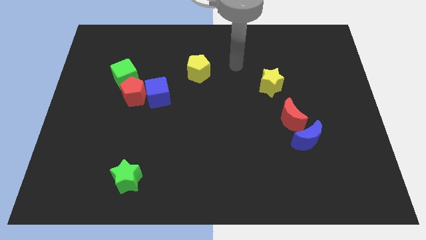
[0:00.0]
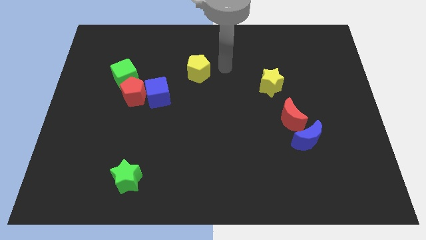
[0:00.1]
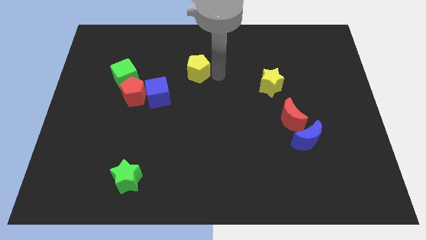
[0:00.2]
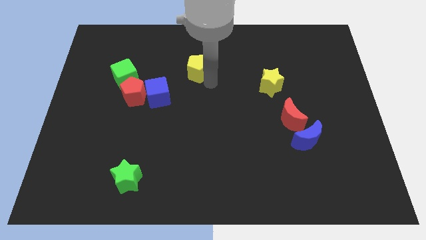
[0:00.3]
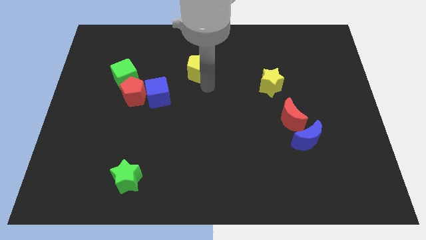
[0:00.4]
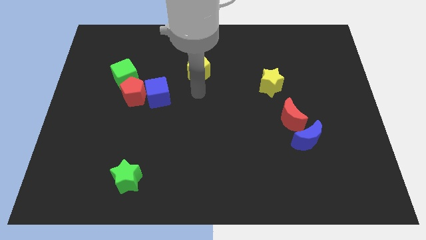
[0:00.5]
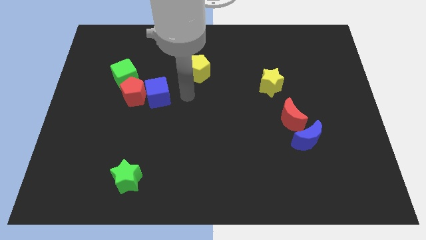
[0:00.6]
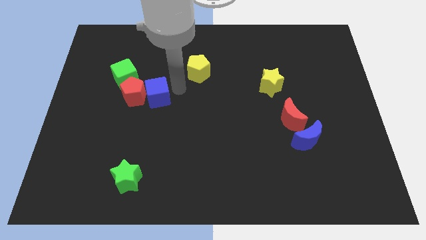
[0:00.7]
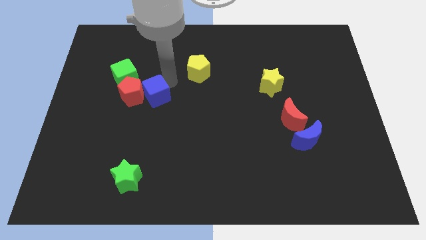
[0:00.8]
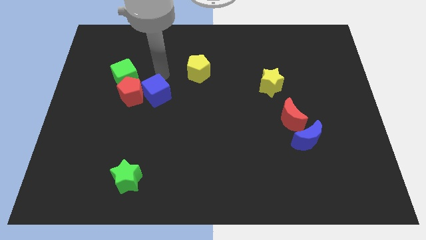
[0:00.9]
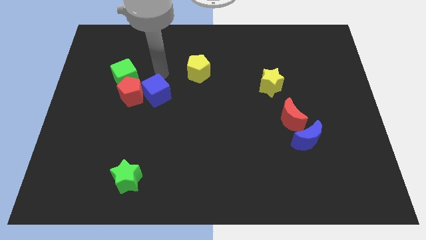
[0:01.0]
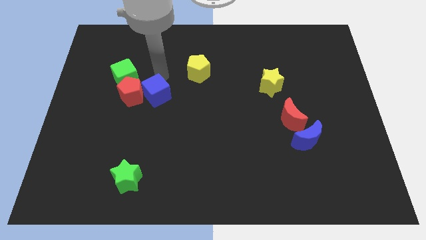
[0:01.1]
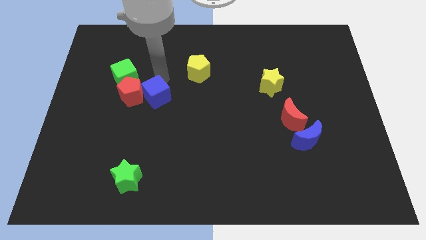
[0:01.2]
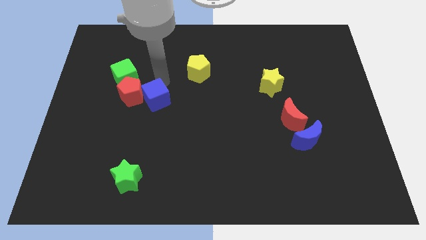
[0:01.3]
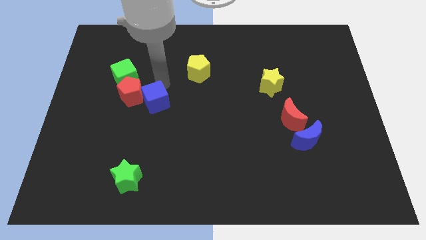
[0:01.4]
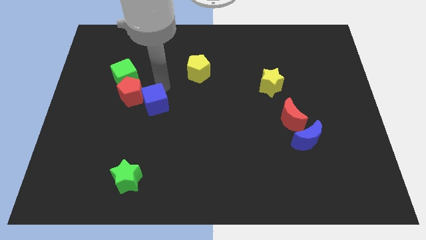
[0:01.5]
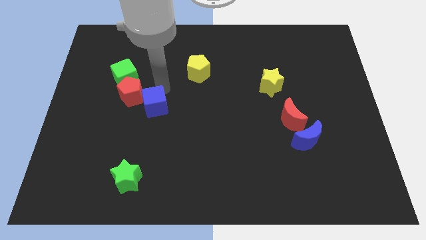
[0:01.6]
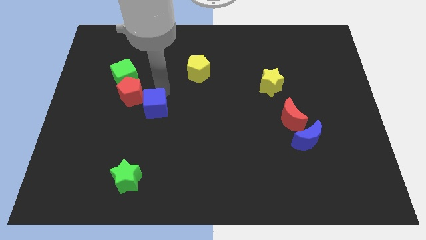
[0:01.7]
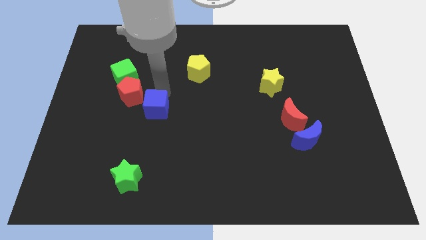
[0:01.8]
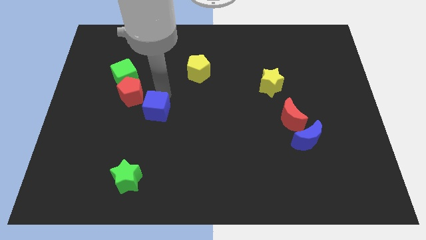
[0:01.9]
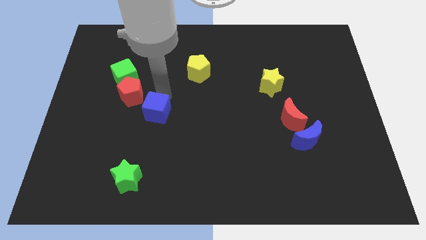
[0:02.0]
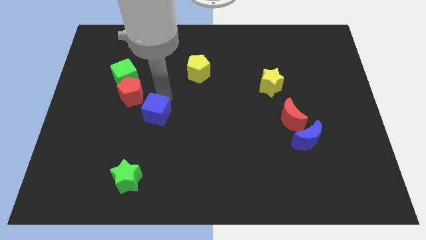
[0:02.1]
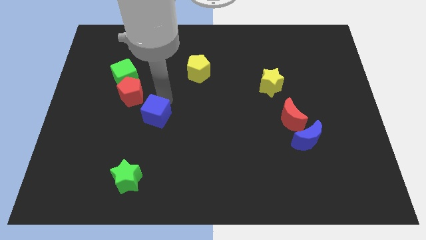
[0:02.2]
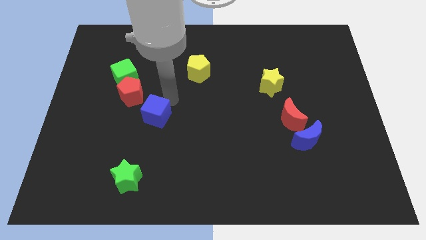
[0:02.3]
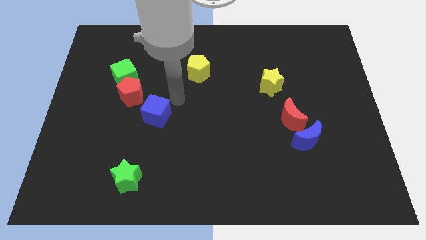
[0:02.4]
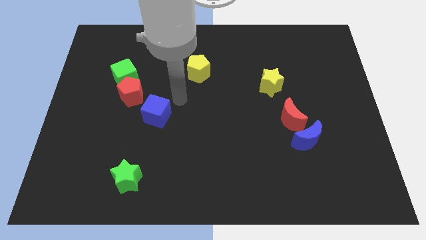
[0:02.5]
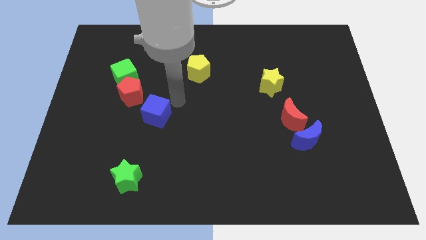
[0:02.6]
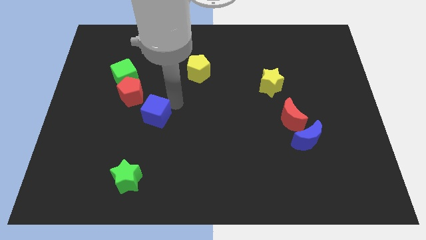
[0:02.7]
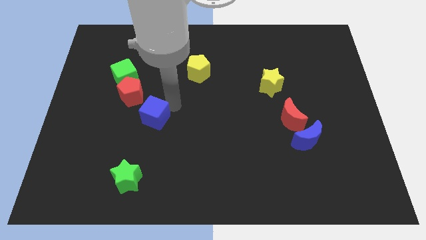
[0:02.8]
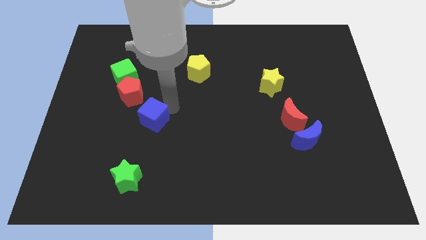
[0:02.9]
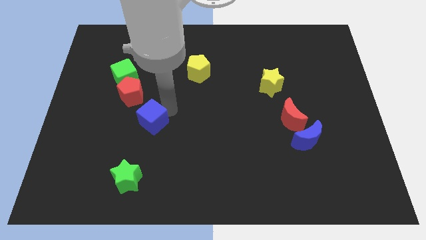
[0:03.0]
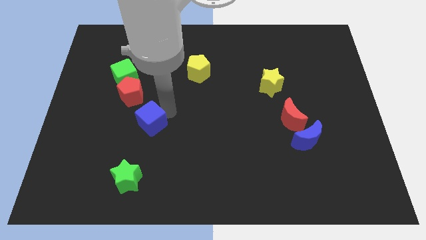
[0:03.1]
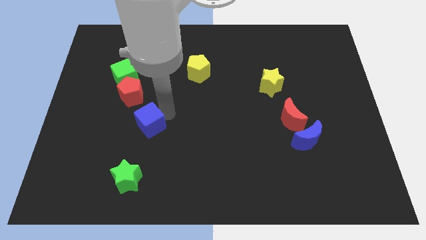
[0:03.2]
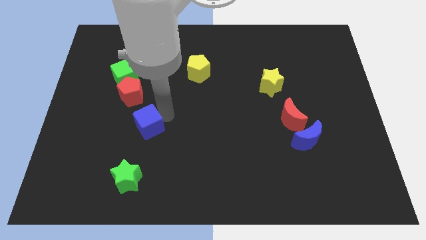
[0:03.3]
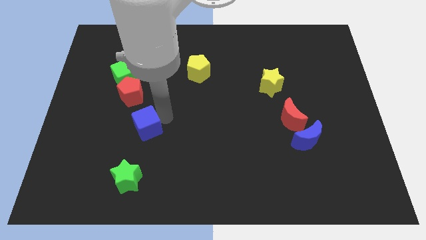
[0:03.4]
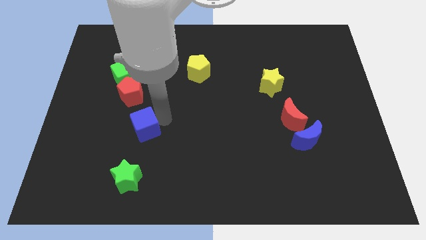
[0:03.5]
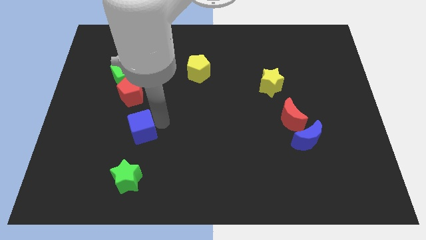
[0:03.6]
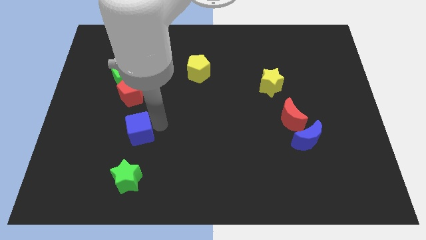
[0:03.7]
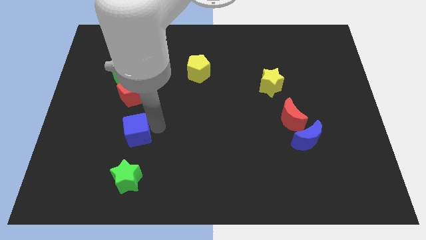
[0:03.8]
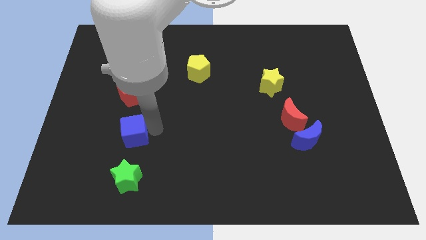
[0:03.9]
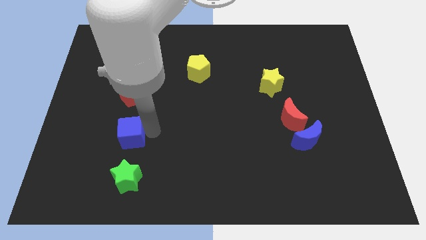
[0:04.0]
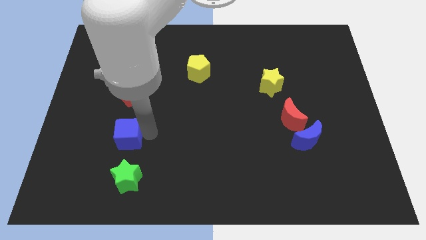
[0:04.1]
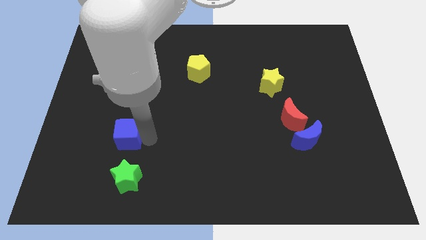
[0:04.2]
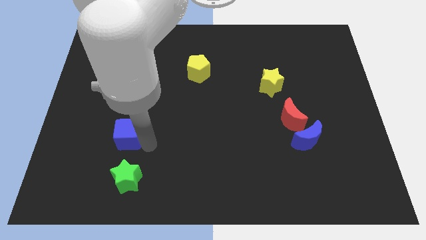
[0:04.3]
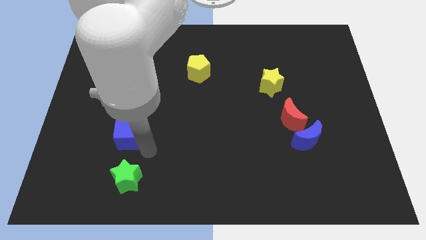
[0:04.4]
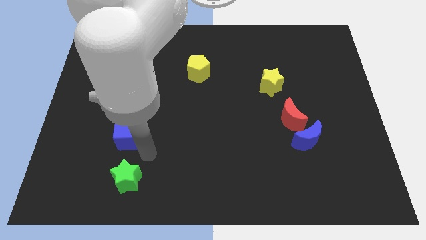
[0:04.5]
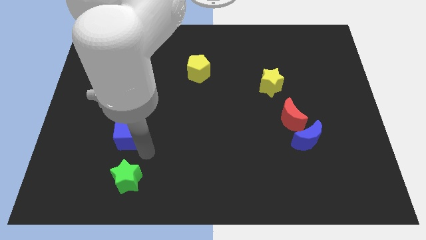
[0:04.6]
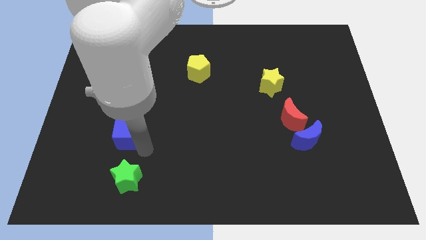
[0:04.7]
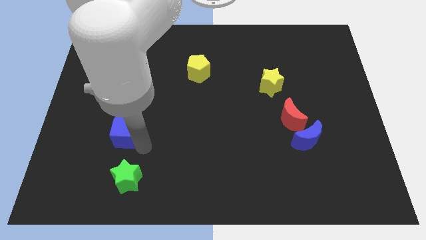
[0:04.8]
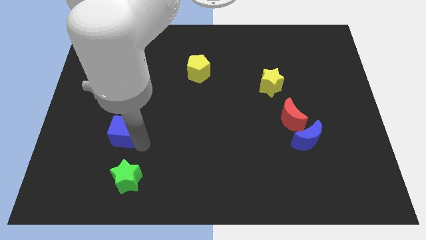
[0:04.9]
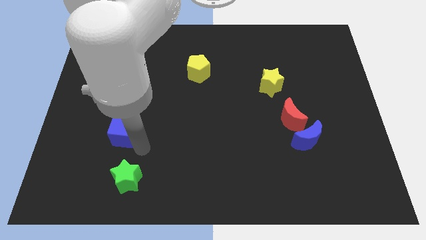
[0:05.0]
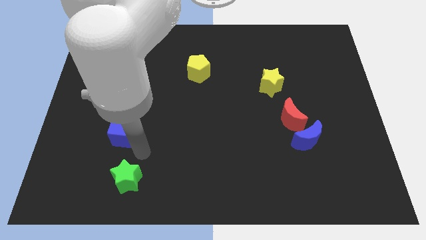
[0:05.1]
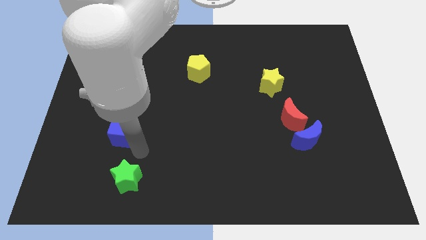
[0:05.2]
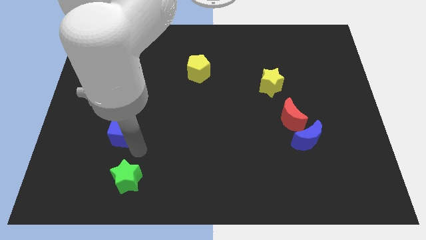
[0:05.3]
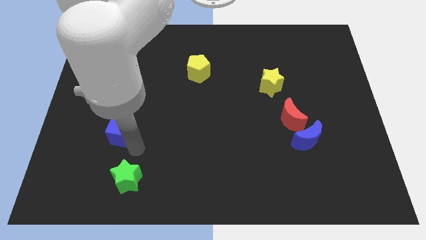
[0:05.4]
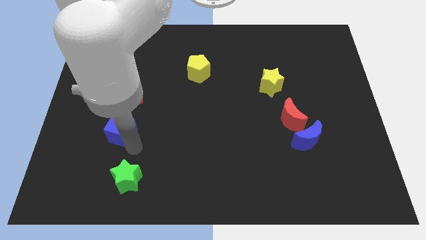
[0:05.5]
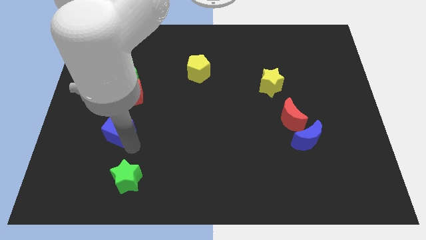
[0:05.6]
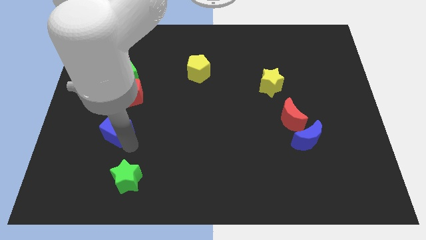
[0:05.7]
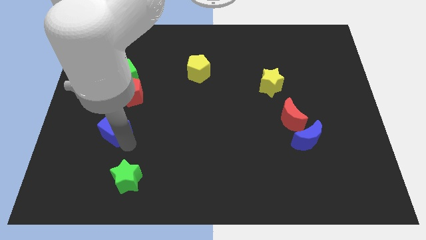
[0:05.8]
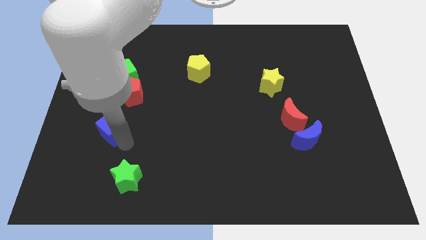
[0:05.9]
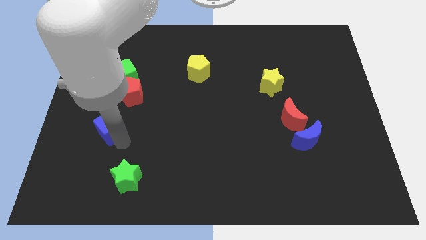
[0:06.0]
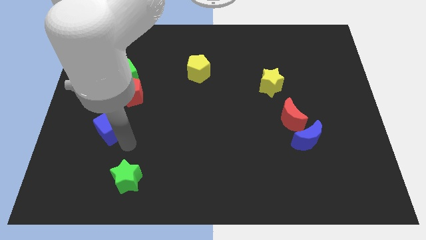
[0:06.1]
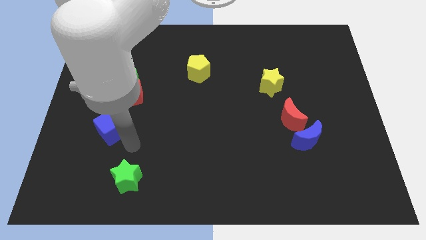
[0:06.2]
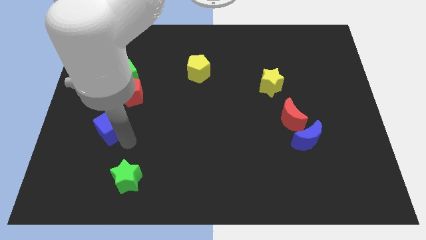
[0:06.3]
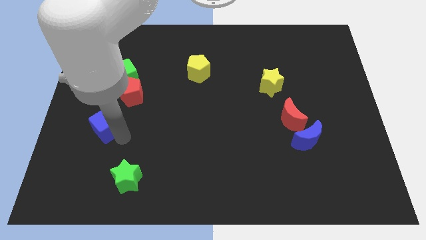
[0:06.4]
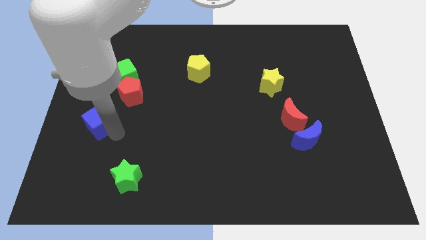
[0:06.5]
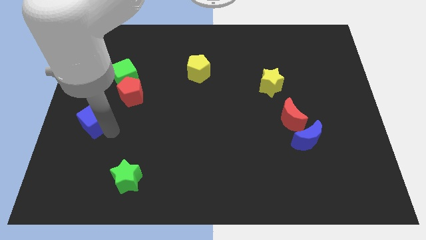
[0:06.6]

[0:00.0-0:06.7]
put the blue cube to the left side
